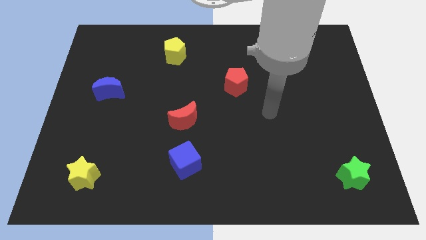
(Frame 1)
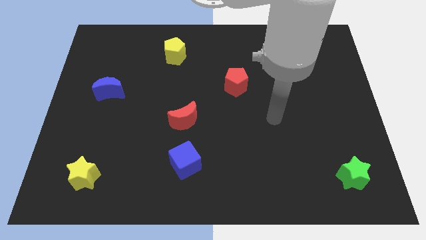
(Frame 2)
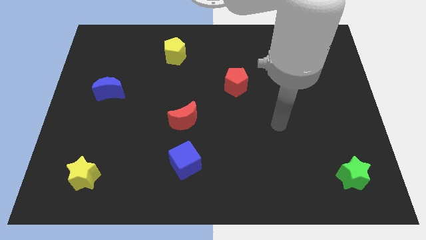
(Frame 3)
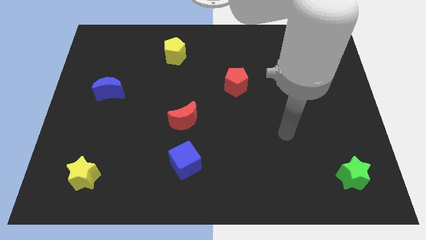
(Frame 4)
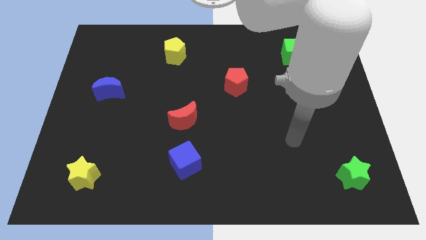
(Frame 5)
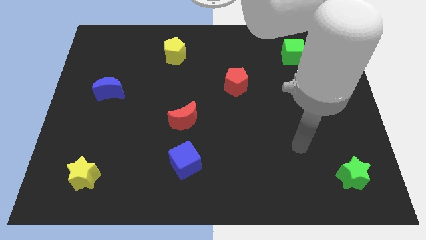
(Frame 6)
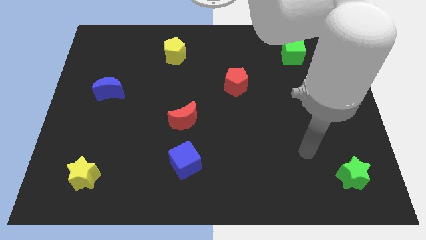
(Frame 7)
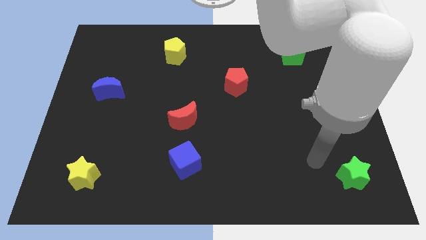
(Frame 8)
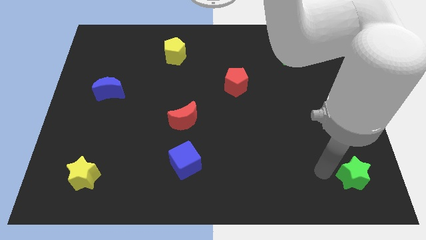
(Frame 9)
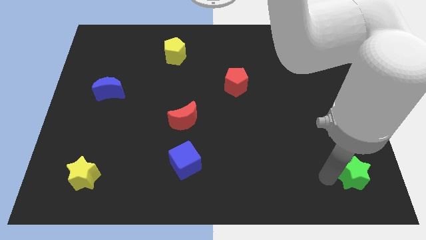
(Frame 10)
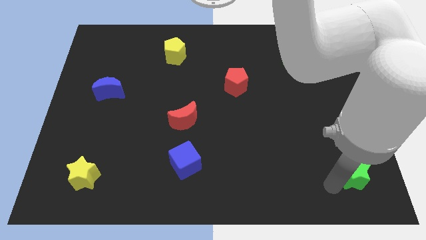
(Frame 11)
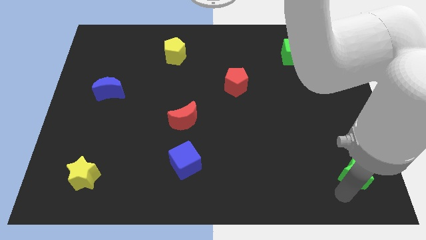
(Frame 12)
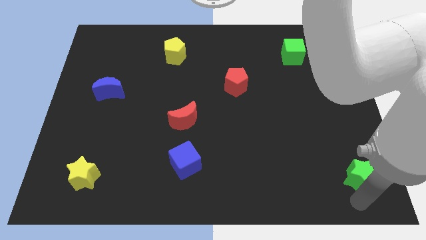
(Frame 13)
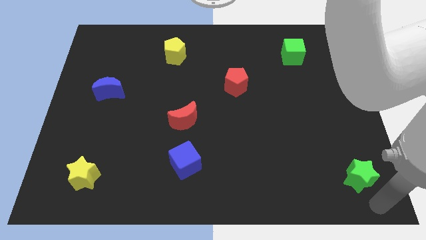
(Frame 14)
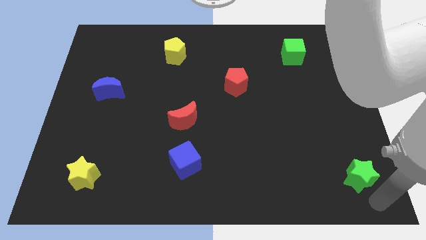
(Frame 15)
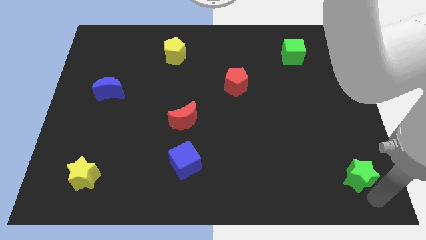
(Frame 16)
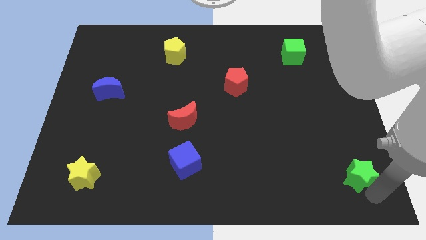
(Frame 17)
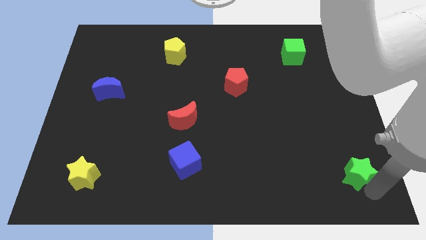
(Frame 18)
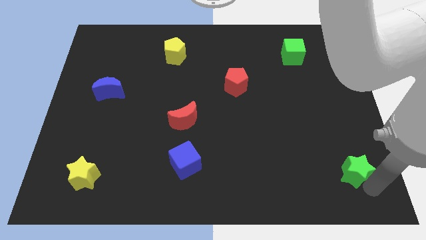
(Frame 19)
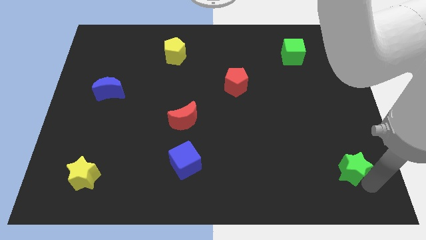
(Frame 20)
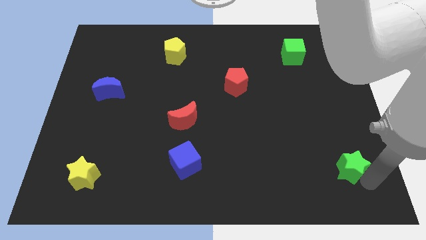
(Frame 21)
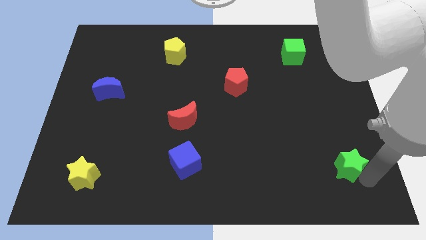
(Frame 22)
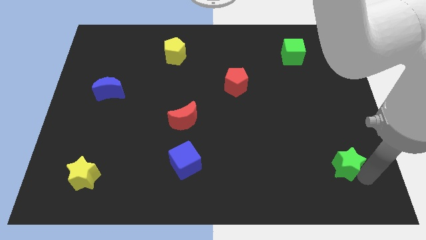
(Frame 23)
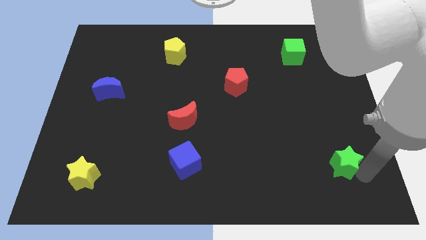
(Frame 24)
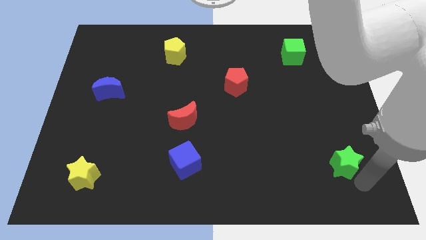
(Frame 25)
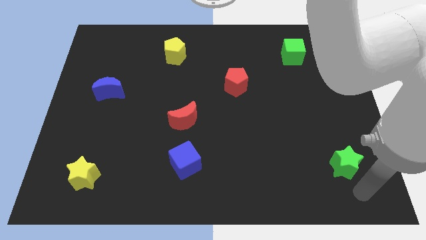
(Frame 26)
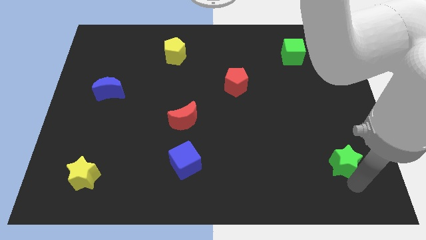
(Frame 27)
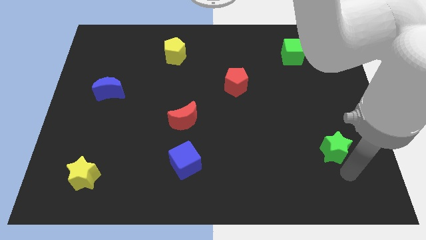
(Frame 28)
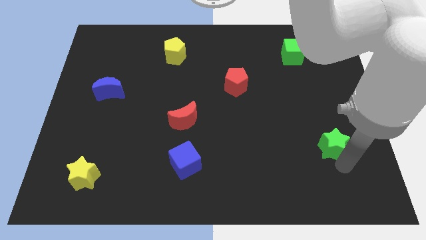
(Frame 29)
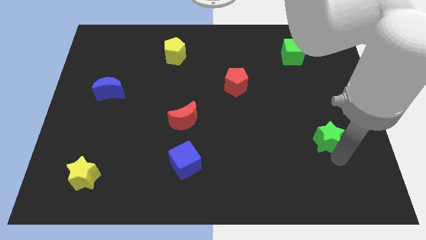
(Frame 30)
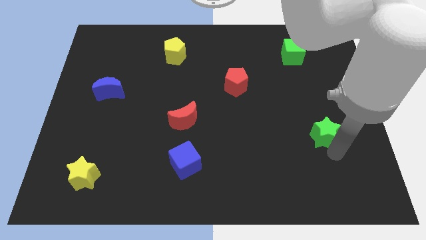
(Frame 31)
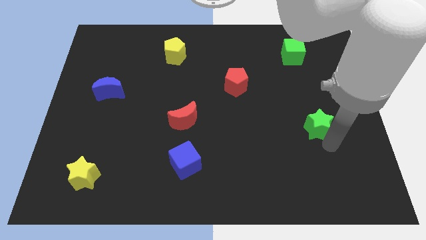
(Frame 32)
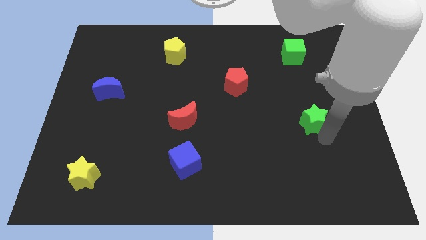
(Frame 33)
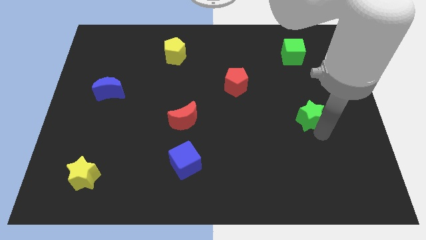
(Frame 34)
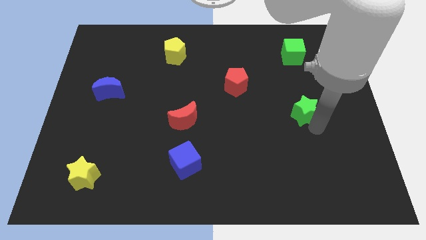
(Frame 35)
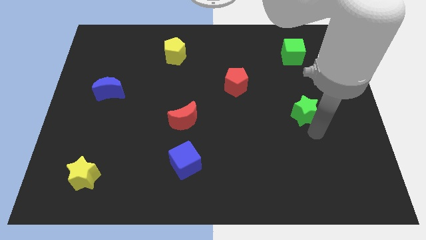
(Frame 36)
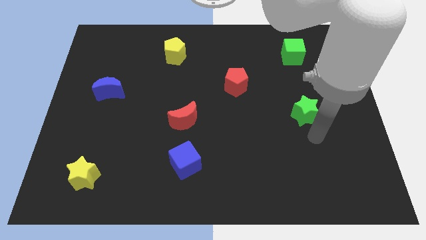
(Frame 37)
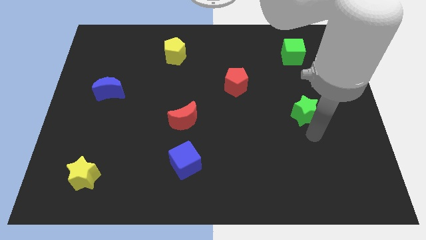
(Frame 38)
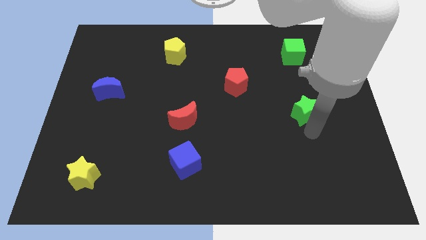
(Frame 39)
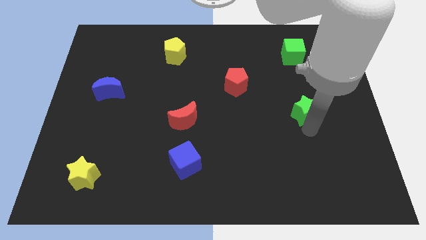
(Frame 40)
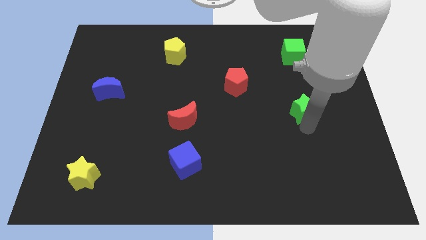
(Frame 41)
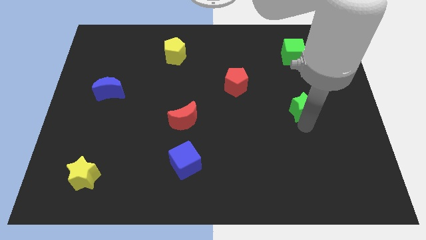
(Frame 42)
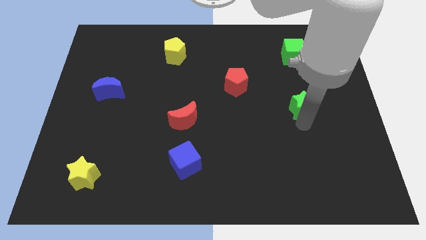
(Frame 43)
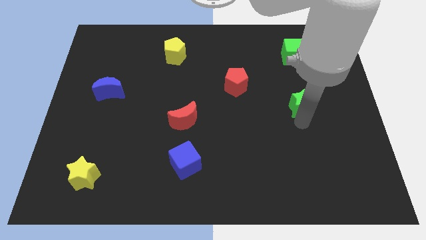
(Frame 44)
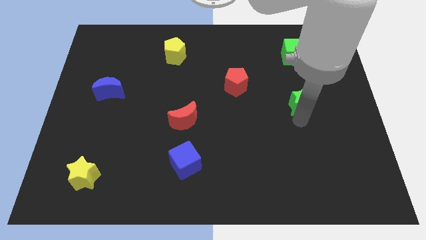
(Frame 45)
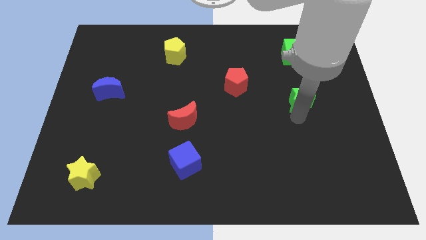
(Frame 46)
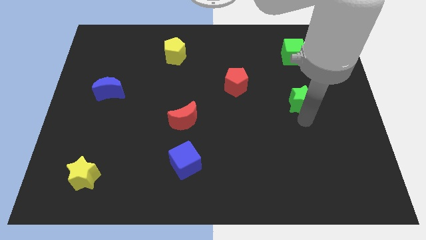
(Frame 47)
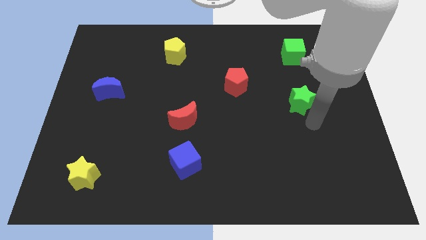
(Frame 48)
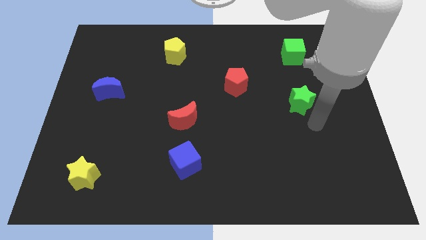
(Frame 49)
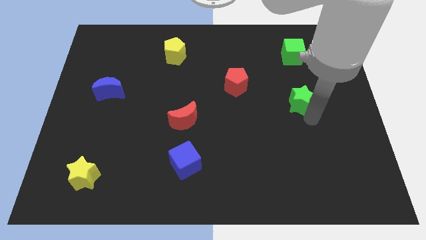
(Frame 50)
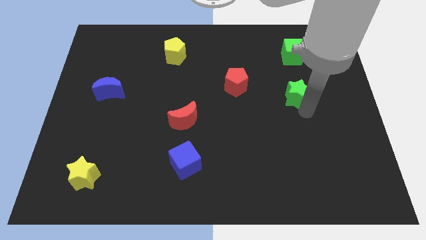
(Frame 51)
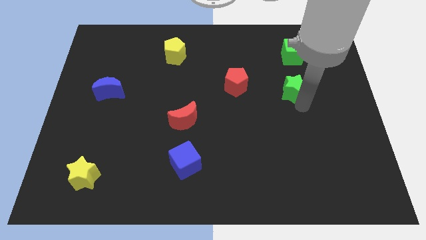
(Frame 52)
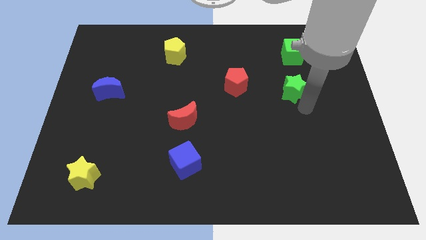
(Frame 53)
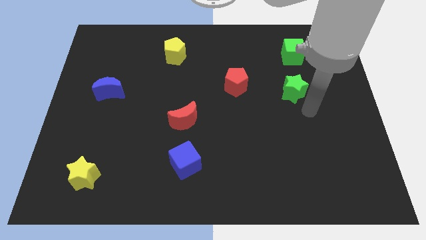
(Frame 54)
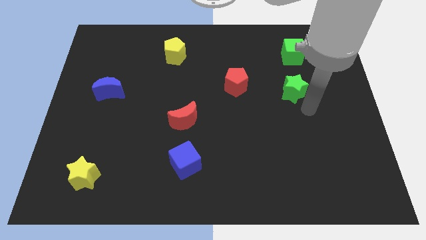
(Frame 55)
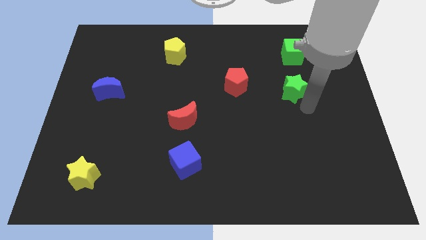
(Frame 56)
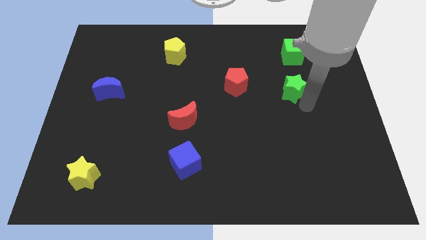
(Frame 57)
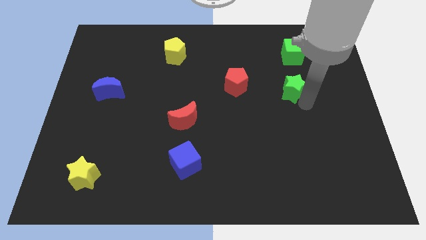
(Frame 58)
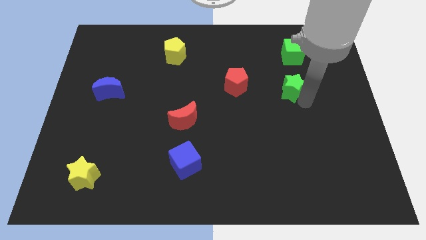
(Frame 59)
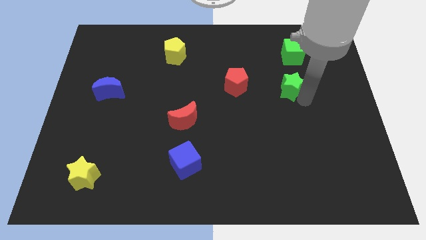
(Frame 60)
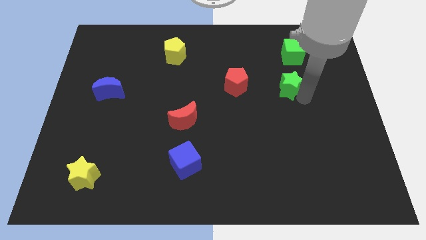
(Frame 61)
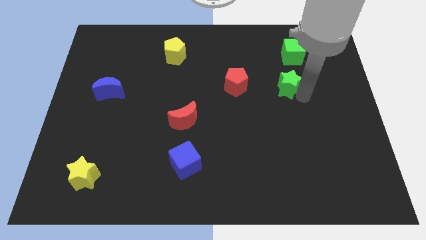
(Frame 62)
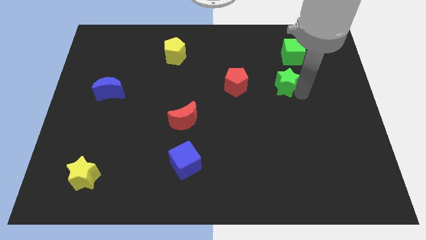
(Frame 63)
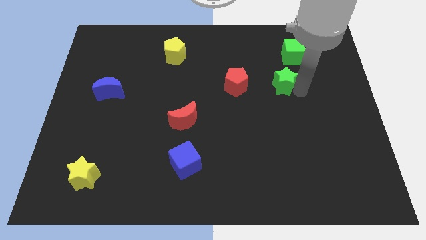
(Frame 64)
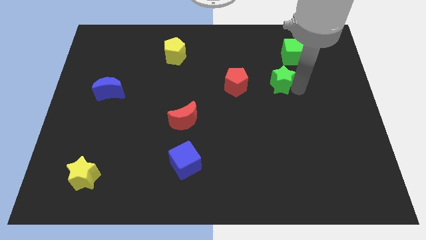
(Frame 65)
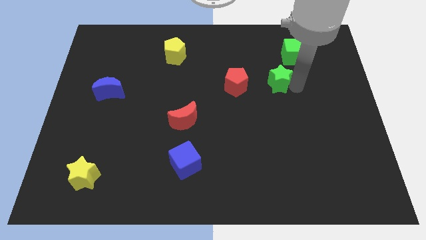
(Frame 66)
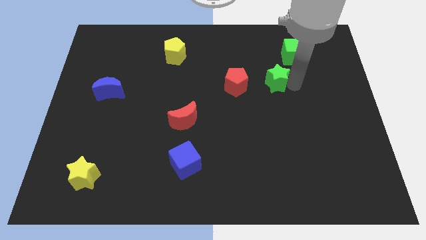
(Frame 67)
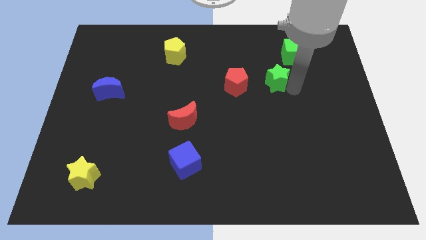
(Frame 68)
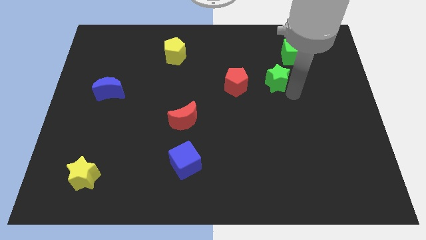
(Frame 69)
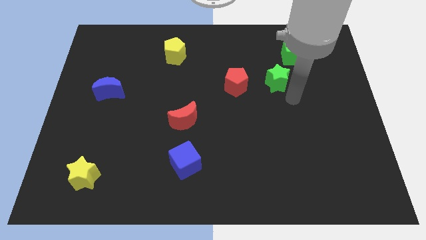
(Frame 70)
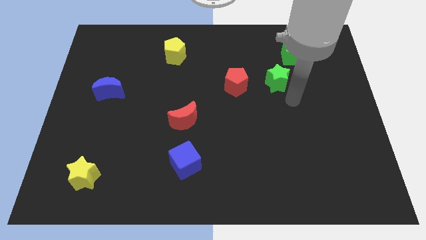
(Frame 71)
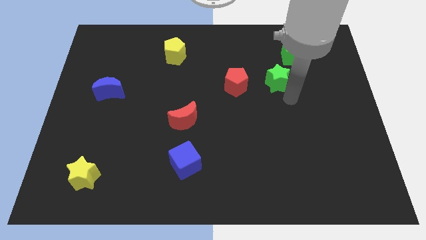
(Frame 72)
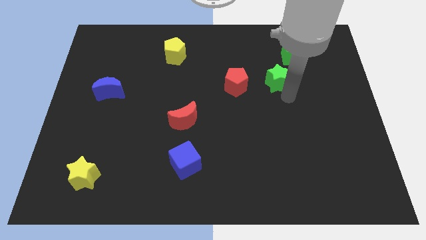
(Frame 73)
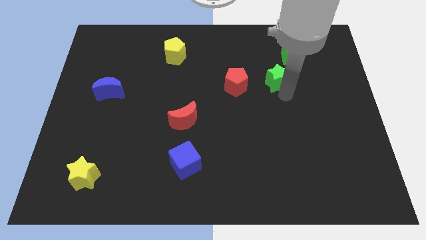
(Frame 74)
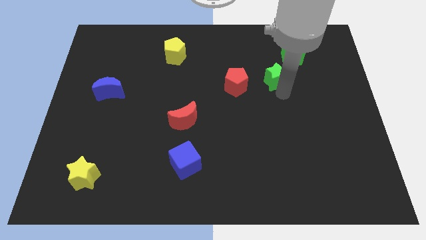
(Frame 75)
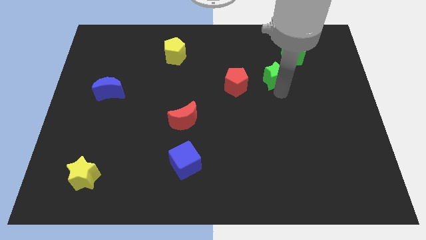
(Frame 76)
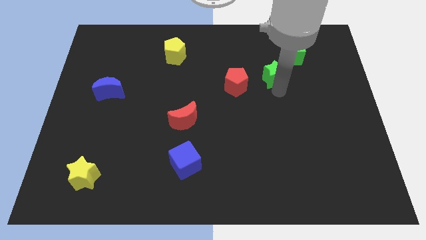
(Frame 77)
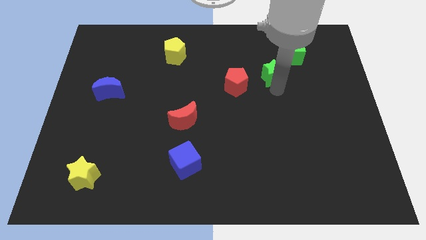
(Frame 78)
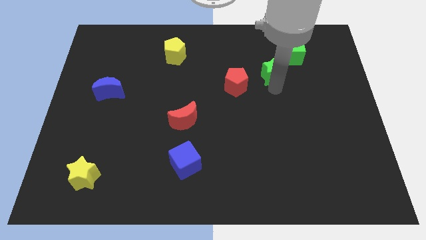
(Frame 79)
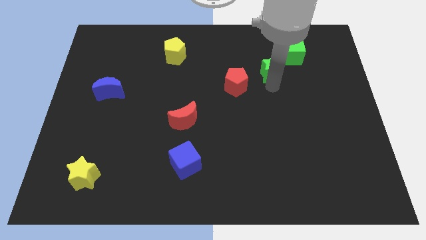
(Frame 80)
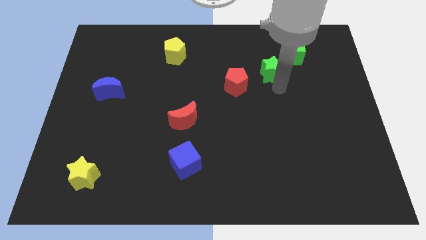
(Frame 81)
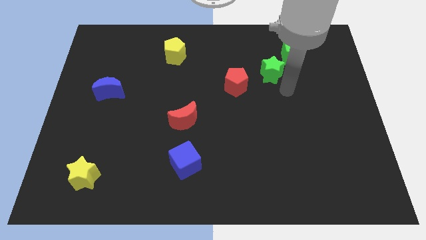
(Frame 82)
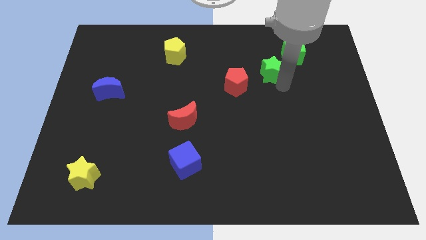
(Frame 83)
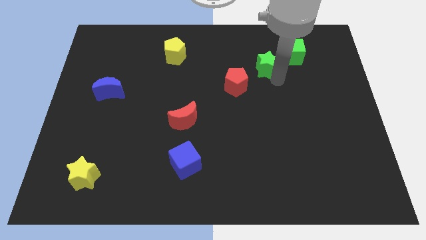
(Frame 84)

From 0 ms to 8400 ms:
push the green star to the left side of the green cube
